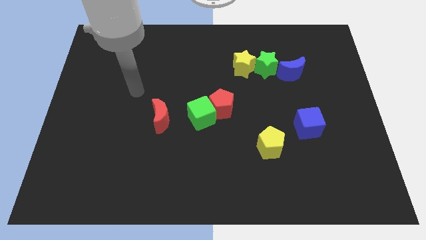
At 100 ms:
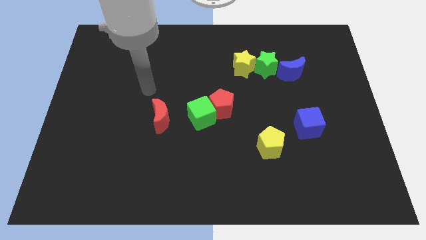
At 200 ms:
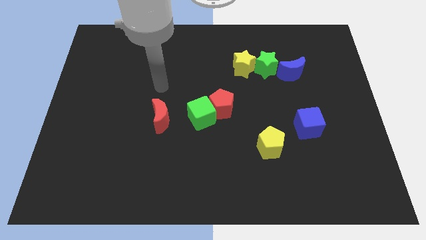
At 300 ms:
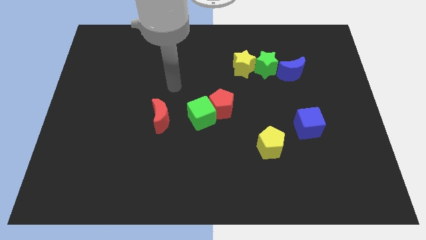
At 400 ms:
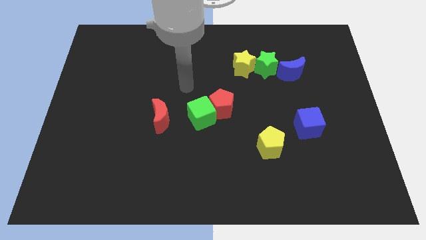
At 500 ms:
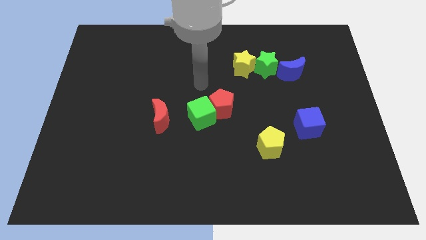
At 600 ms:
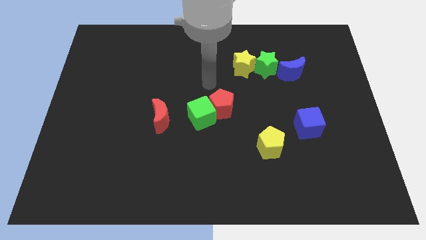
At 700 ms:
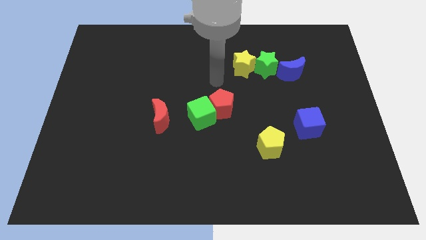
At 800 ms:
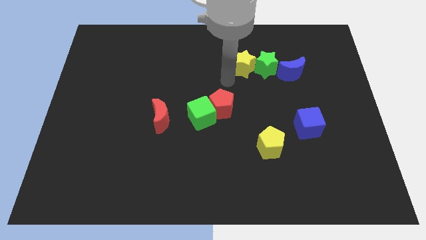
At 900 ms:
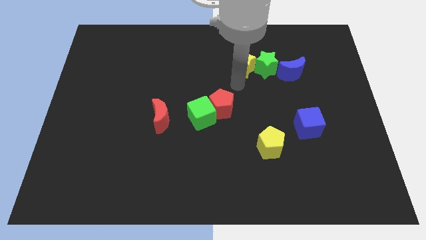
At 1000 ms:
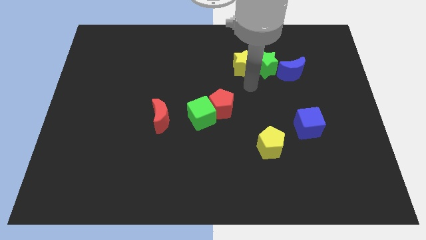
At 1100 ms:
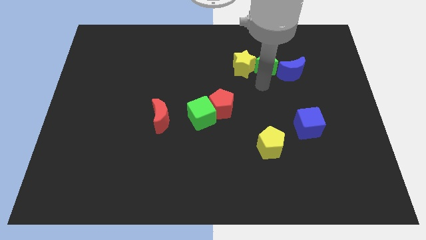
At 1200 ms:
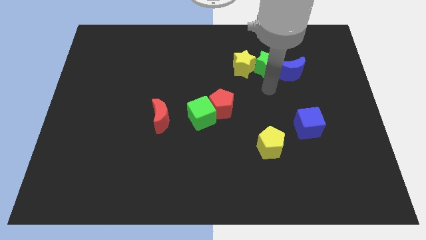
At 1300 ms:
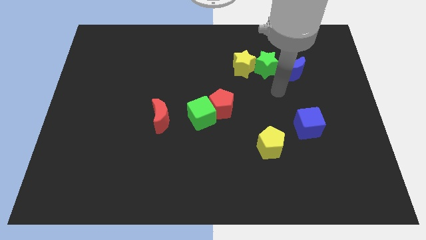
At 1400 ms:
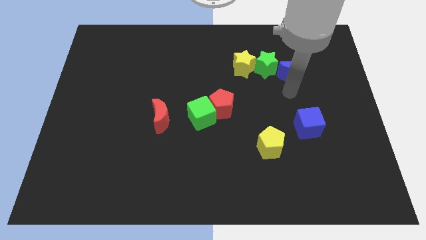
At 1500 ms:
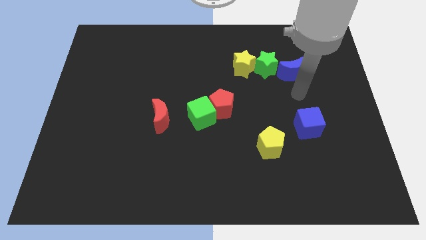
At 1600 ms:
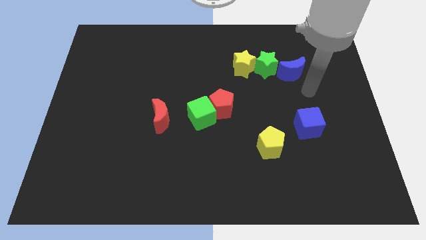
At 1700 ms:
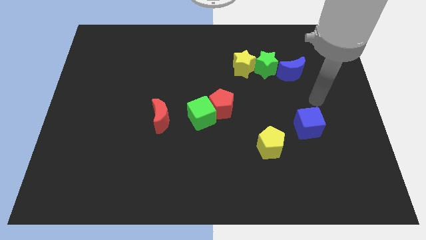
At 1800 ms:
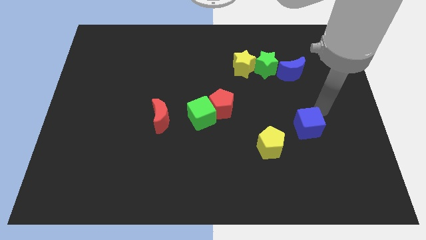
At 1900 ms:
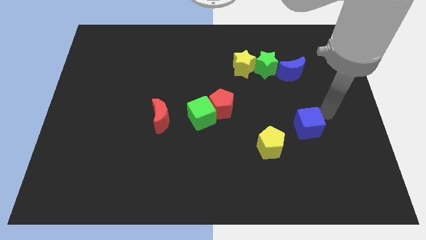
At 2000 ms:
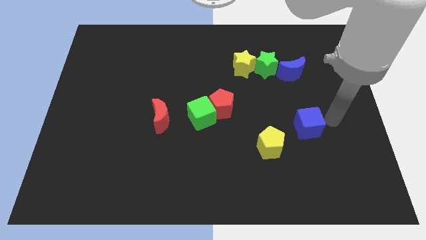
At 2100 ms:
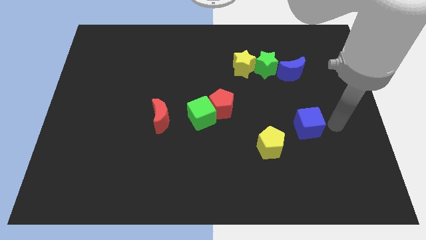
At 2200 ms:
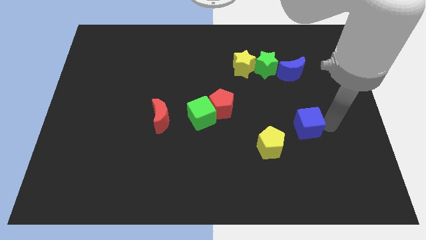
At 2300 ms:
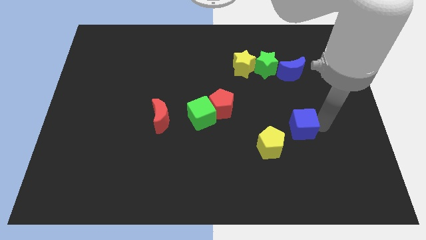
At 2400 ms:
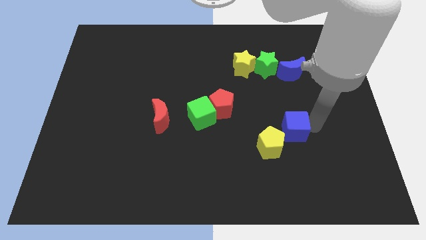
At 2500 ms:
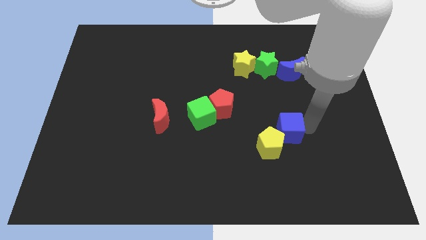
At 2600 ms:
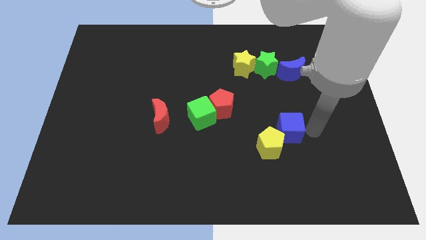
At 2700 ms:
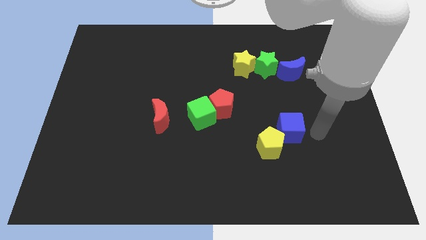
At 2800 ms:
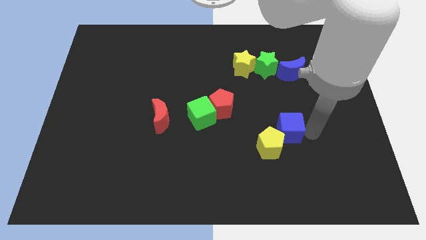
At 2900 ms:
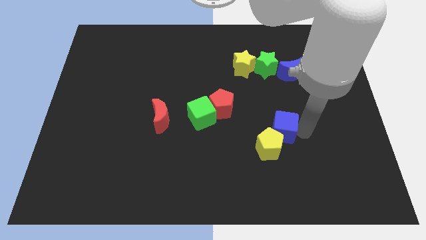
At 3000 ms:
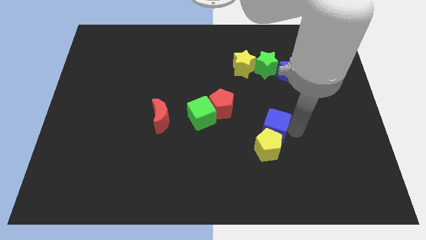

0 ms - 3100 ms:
push the blue cube left a bit

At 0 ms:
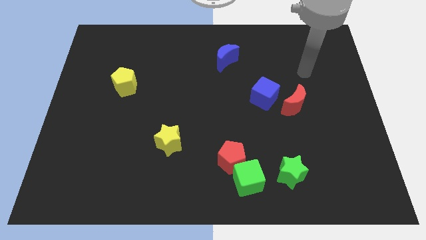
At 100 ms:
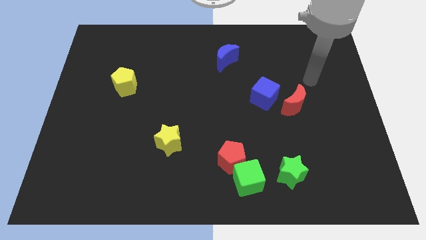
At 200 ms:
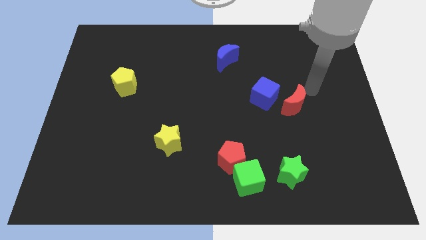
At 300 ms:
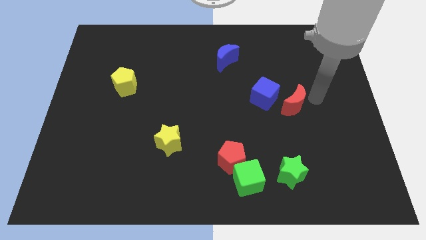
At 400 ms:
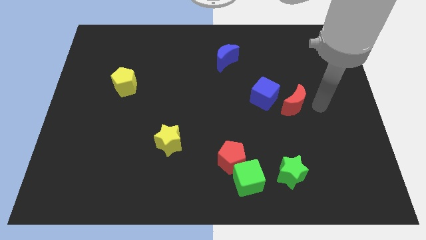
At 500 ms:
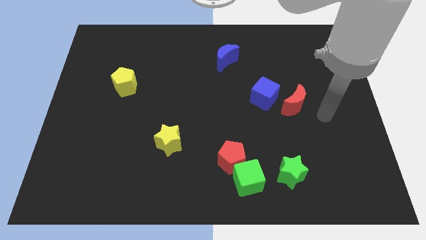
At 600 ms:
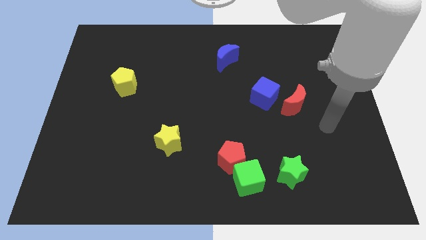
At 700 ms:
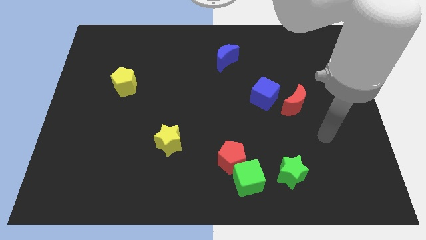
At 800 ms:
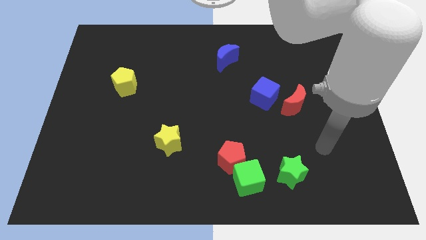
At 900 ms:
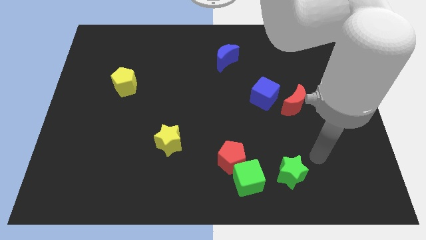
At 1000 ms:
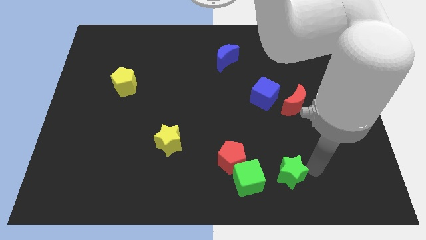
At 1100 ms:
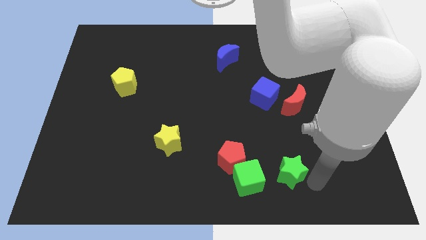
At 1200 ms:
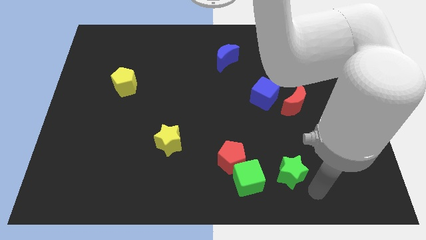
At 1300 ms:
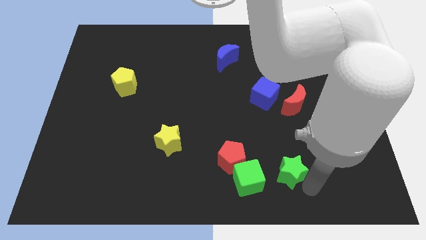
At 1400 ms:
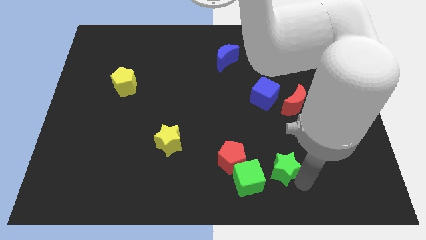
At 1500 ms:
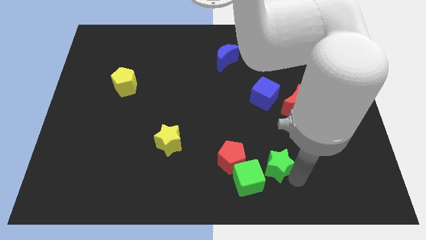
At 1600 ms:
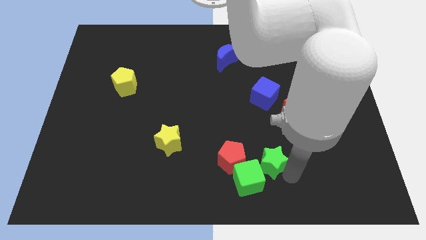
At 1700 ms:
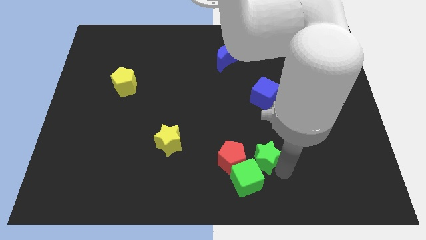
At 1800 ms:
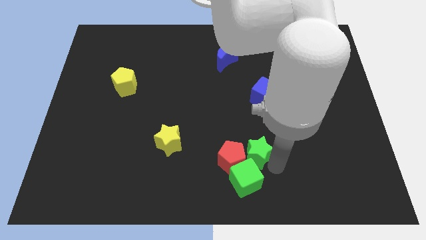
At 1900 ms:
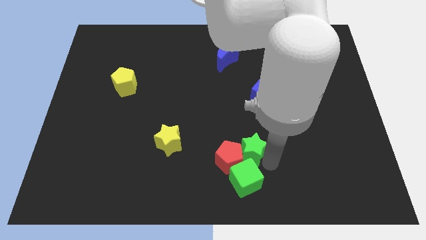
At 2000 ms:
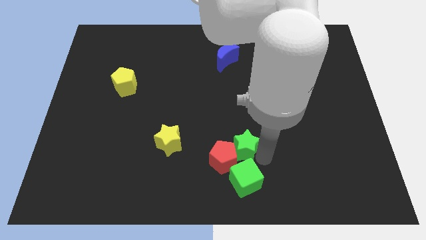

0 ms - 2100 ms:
move the green star left a little bit

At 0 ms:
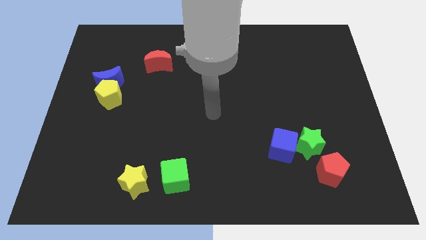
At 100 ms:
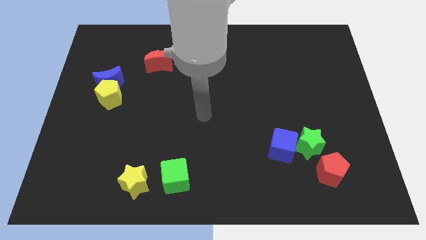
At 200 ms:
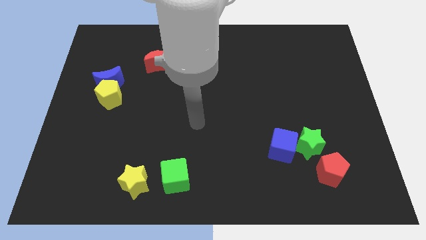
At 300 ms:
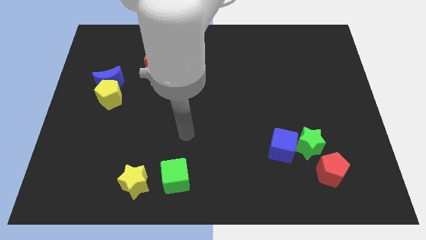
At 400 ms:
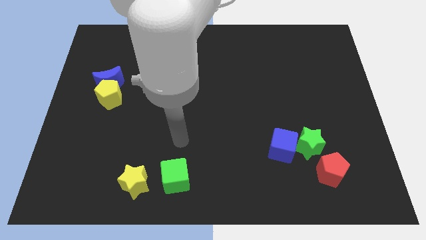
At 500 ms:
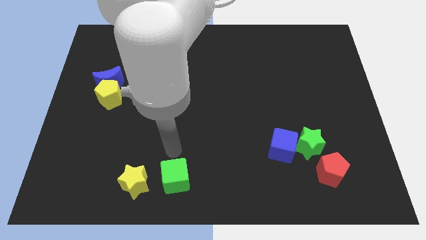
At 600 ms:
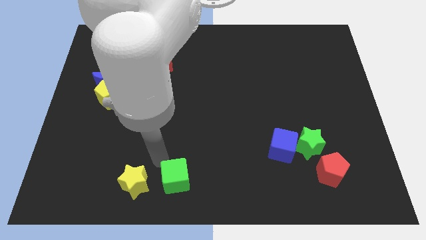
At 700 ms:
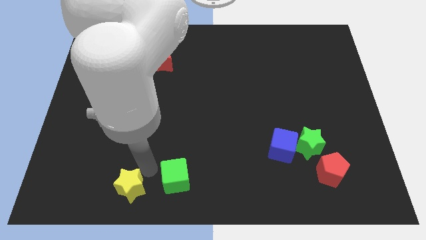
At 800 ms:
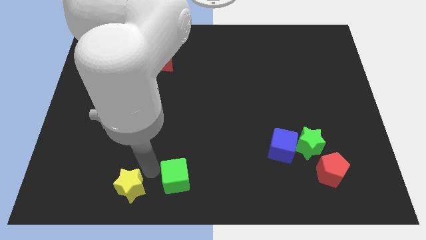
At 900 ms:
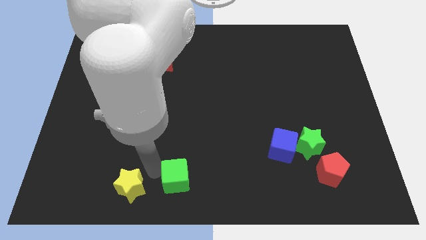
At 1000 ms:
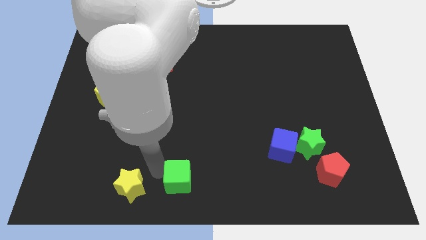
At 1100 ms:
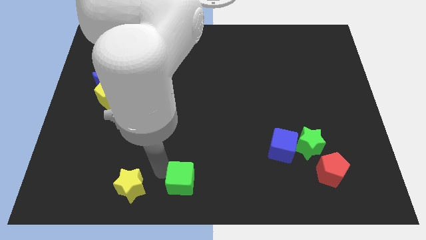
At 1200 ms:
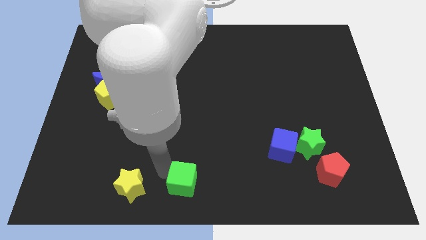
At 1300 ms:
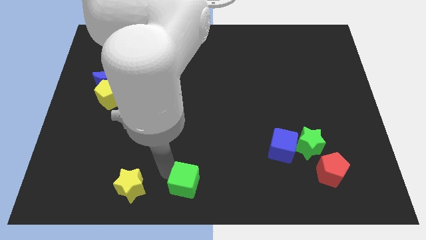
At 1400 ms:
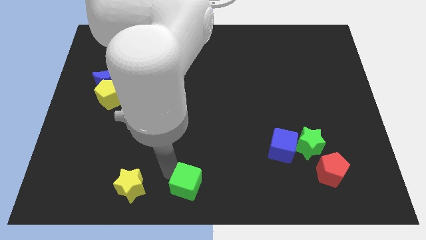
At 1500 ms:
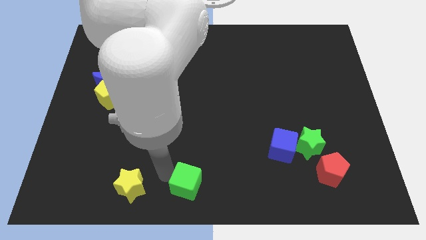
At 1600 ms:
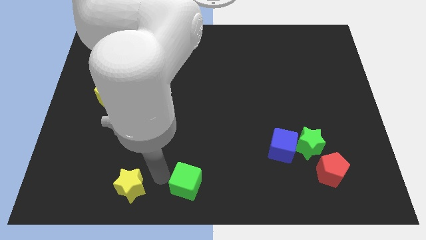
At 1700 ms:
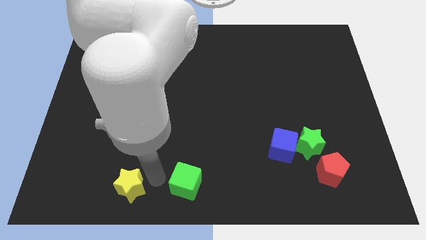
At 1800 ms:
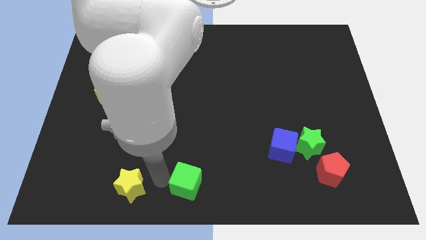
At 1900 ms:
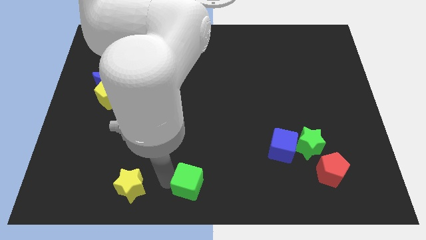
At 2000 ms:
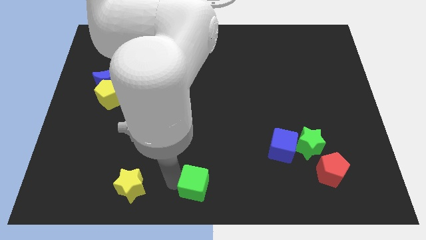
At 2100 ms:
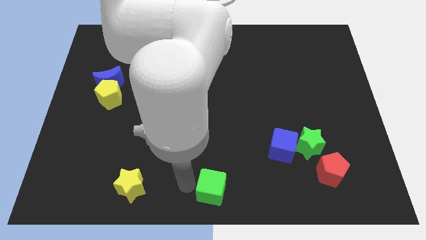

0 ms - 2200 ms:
slide the green cube right slightly

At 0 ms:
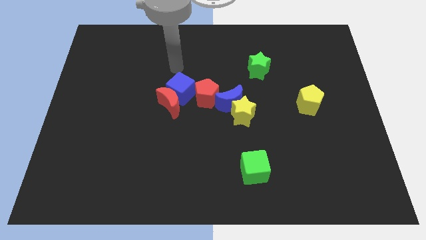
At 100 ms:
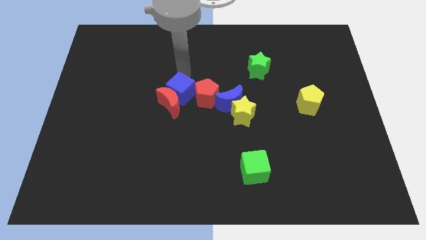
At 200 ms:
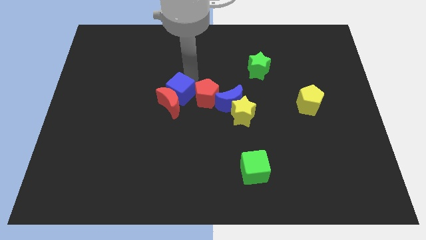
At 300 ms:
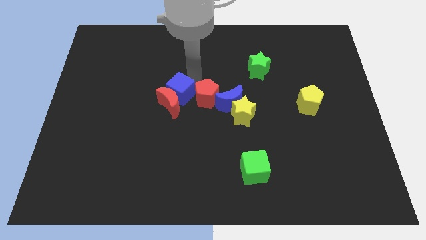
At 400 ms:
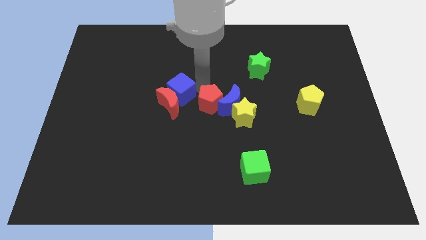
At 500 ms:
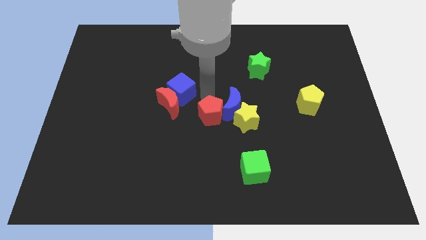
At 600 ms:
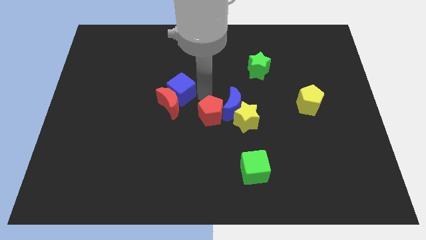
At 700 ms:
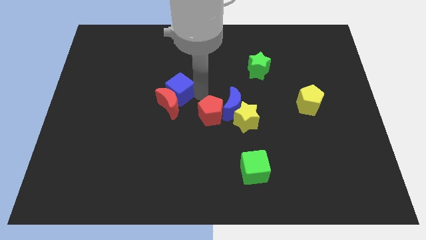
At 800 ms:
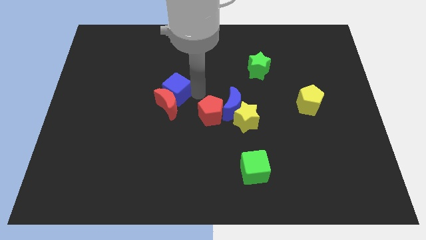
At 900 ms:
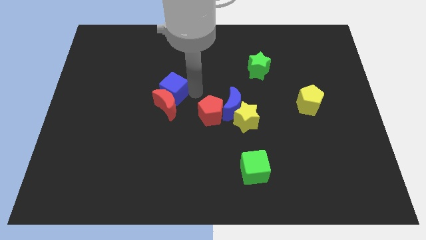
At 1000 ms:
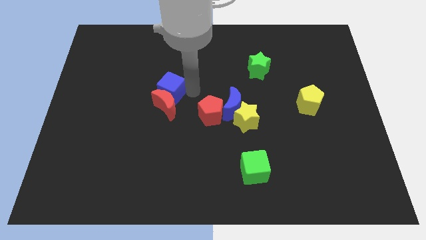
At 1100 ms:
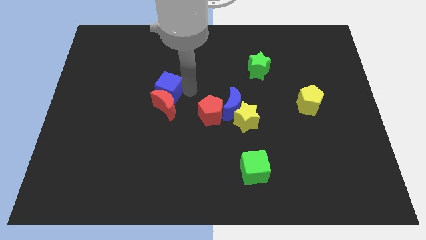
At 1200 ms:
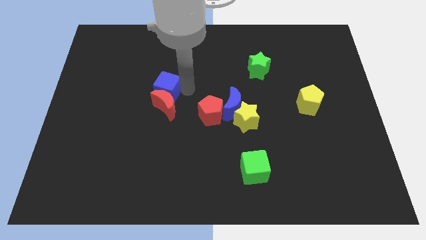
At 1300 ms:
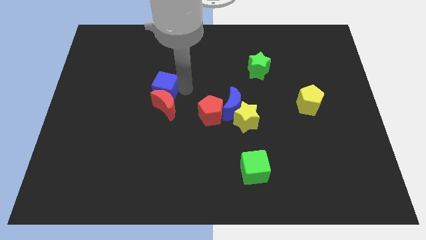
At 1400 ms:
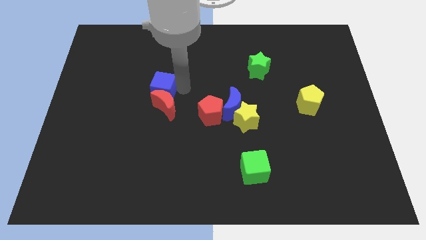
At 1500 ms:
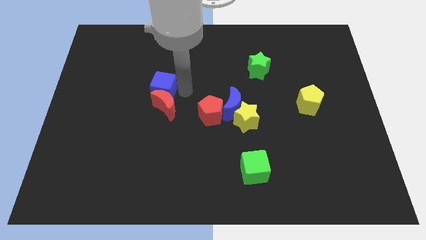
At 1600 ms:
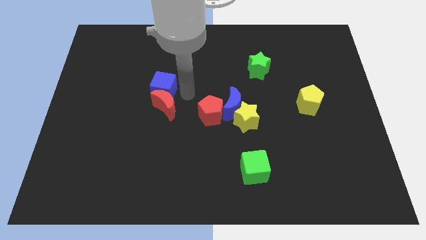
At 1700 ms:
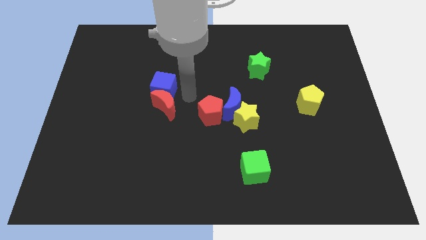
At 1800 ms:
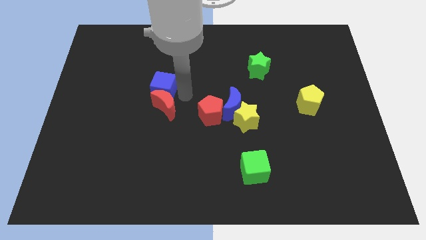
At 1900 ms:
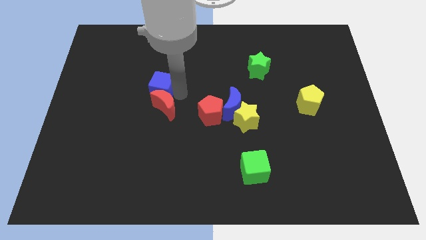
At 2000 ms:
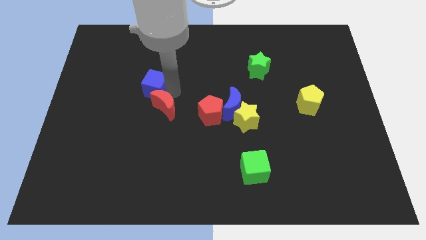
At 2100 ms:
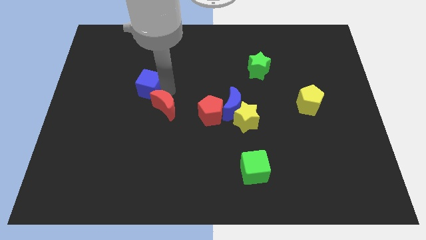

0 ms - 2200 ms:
move the blue cube to the left a little
